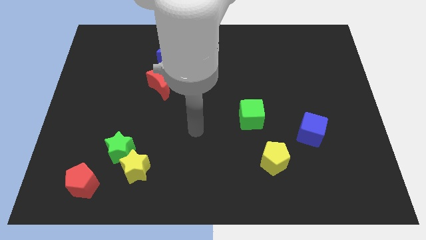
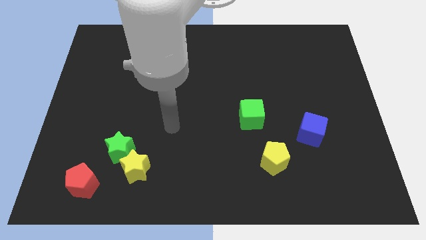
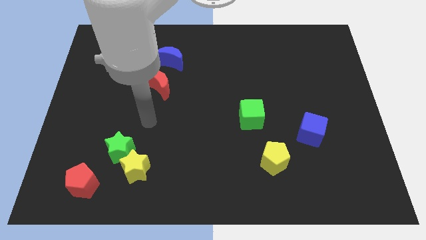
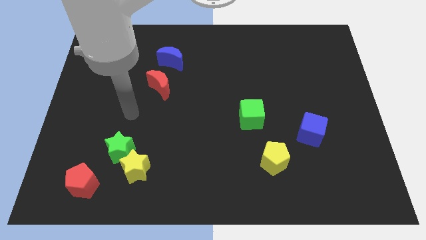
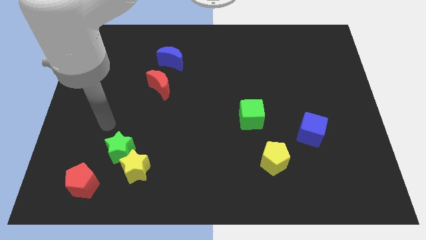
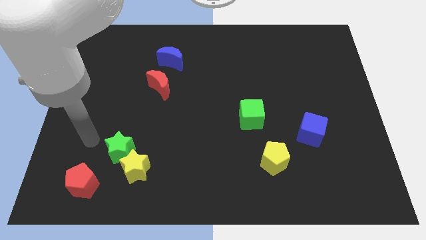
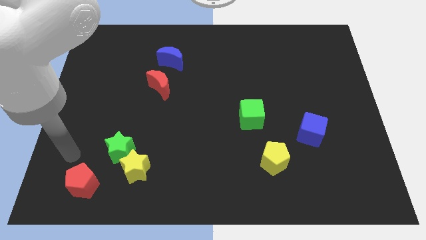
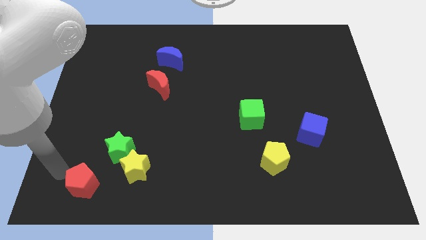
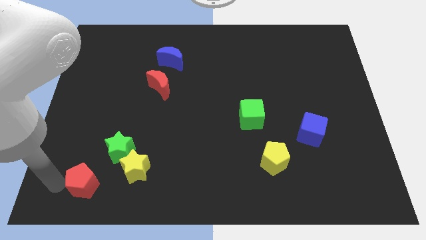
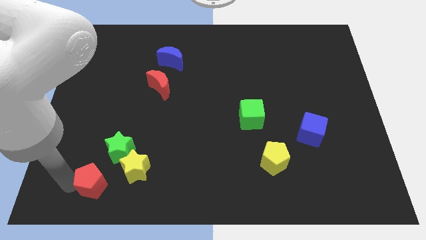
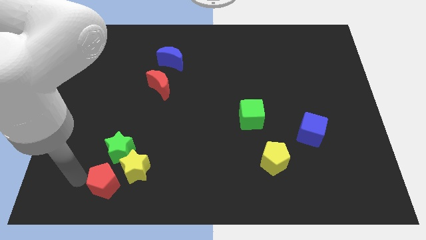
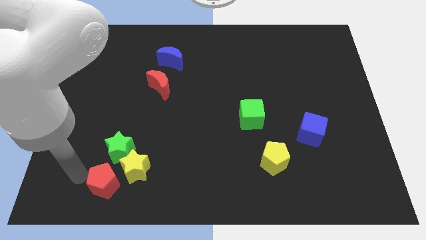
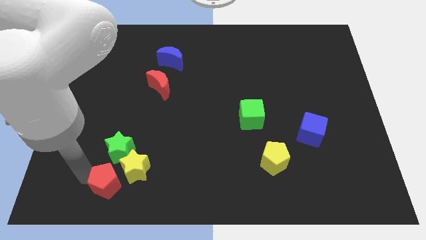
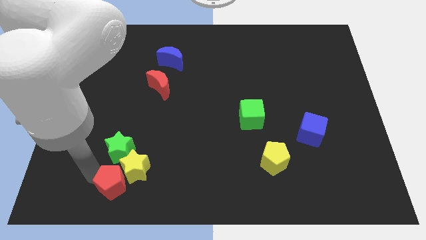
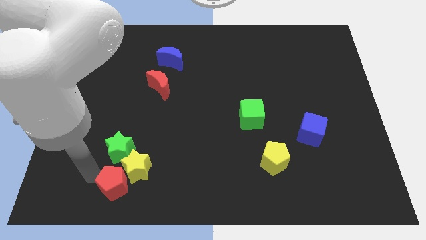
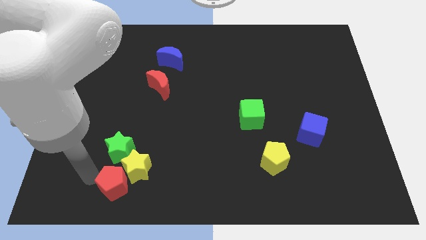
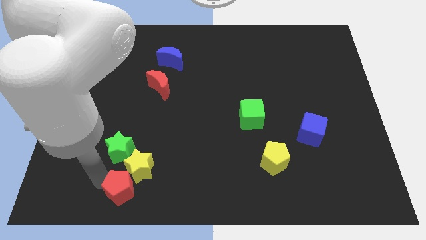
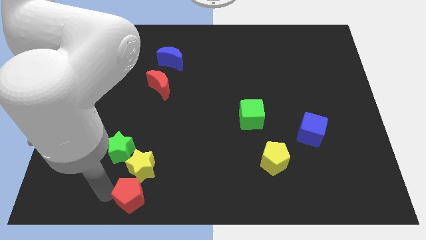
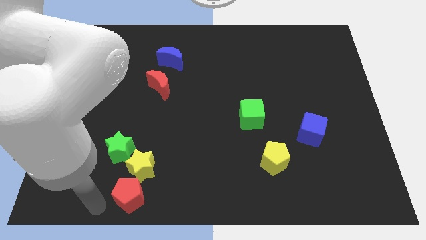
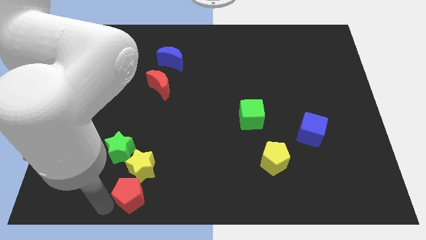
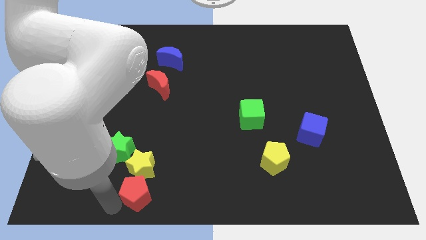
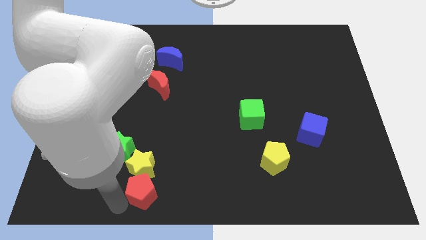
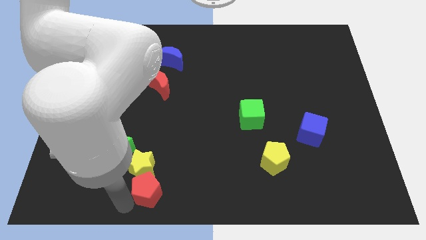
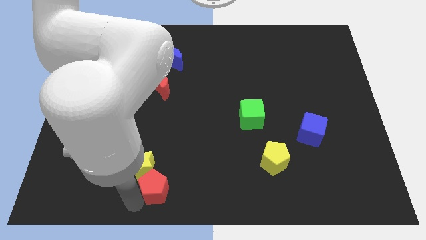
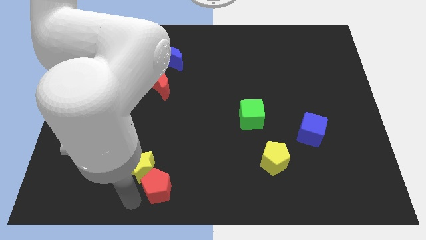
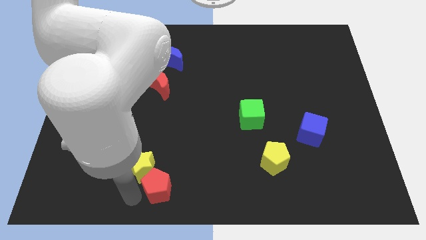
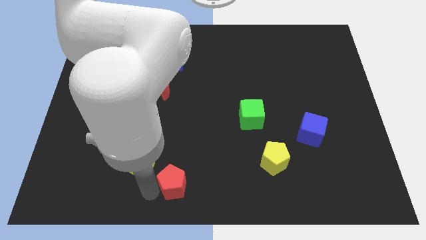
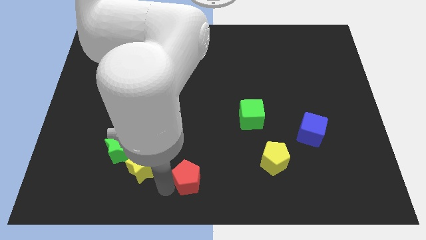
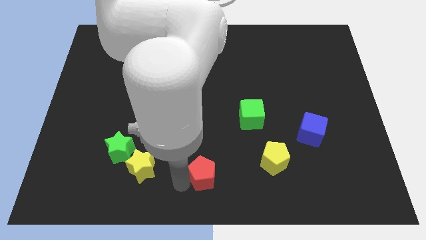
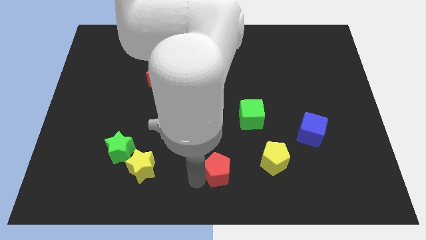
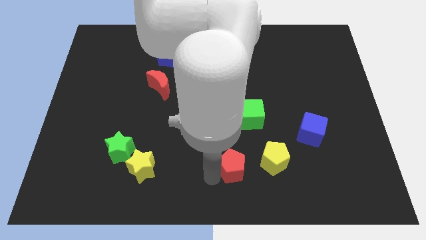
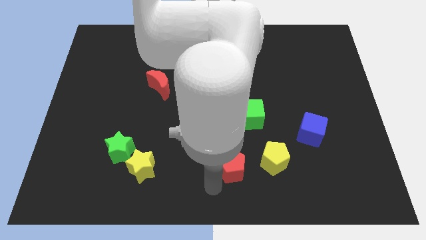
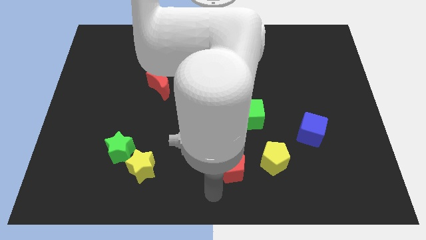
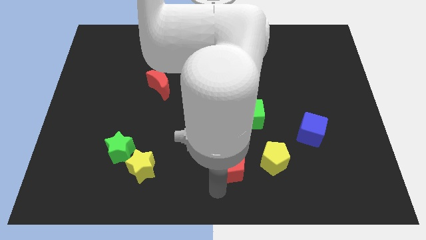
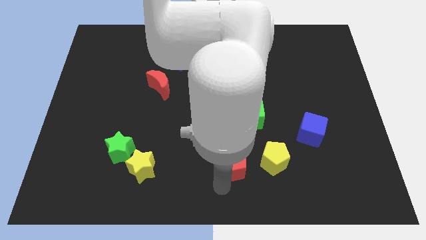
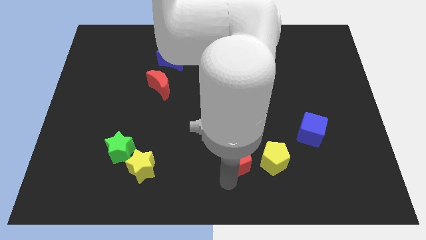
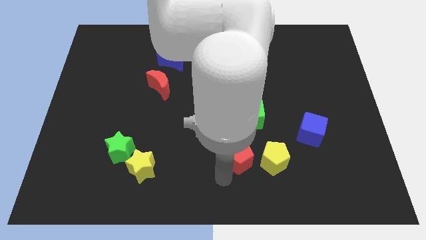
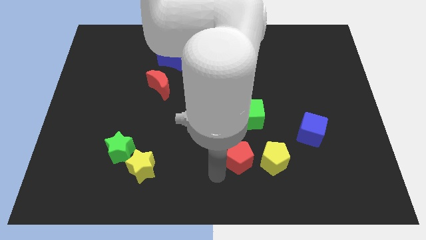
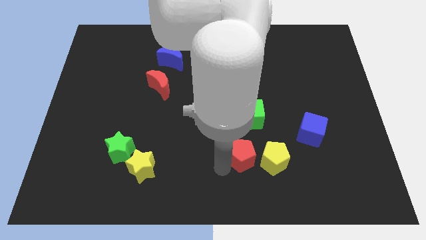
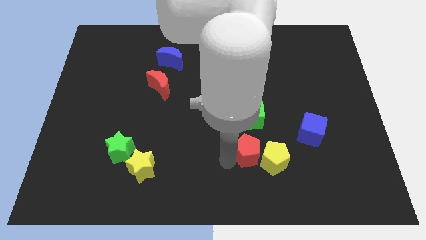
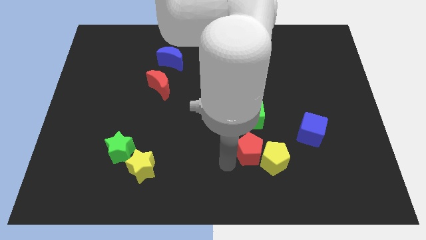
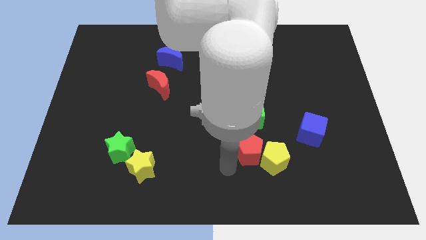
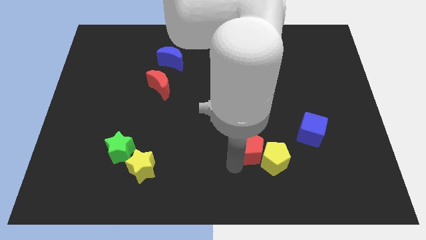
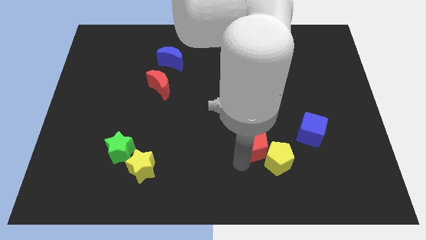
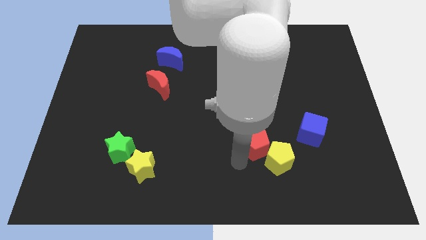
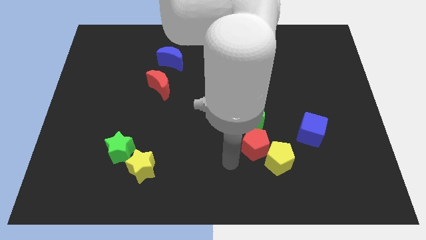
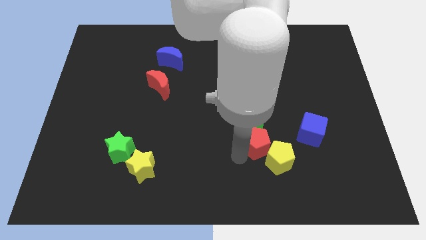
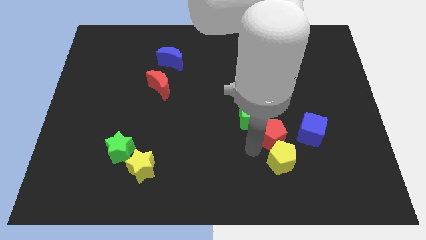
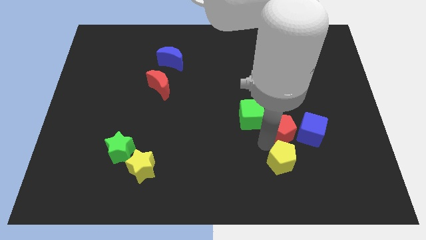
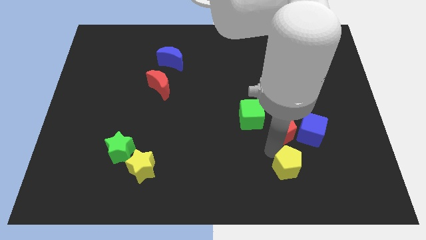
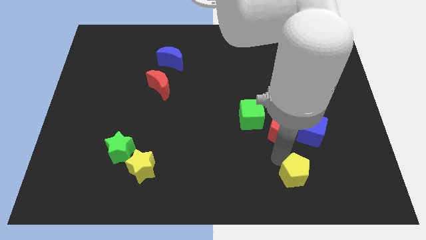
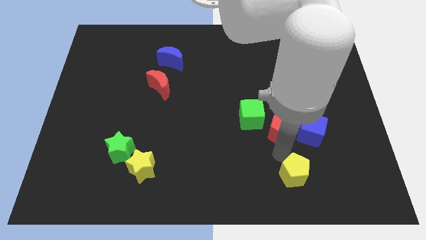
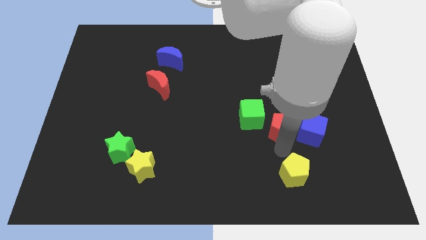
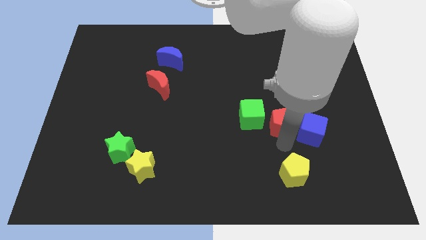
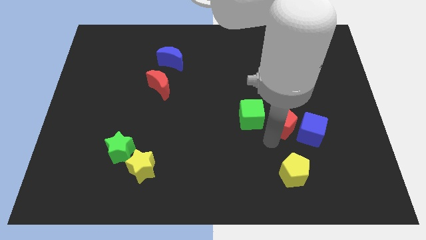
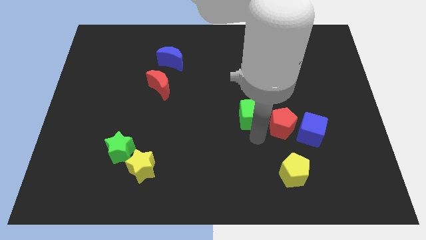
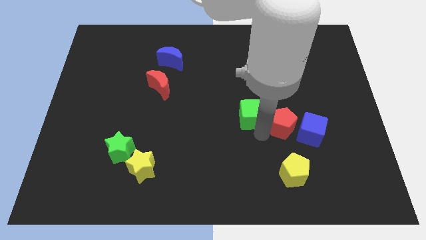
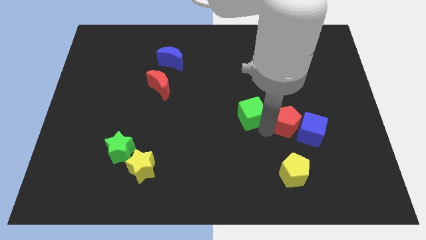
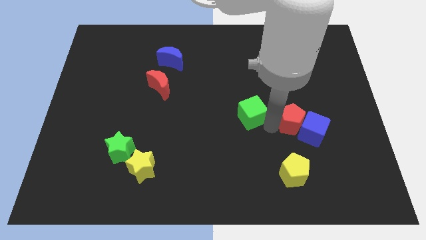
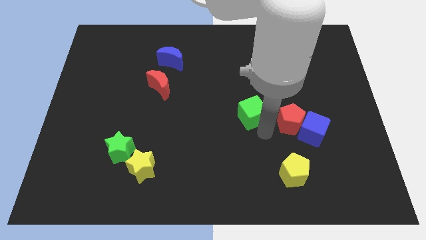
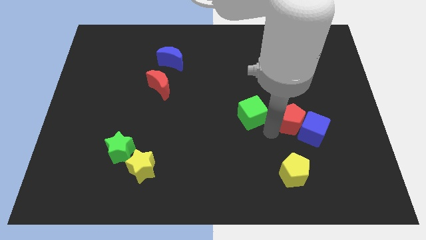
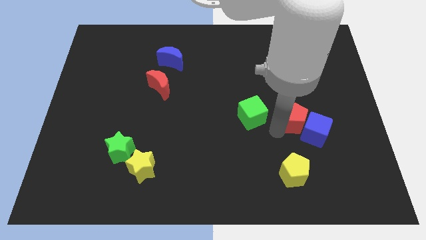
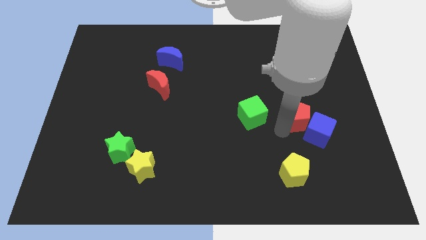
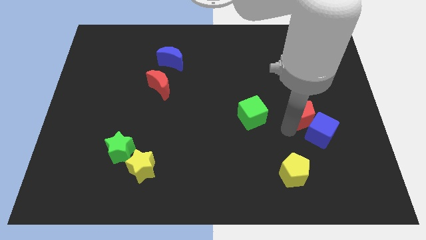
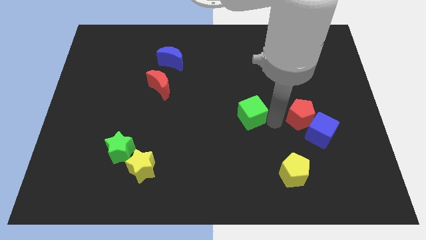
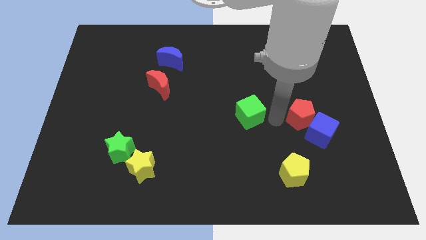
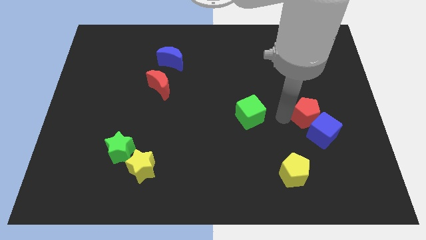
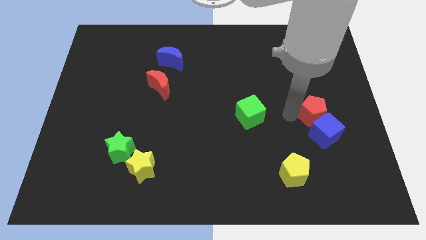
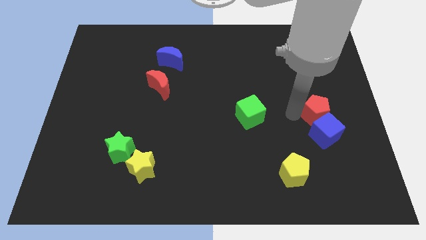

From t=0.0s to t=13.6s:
push the red pentagon to the top right side of the blue cube

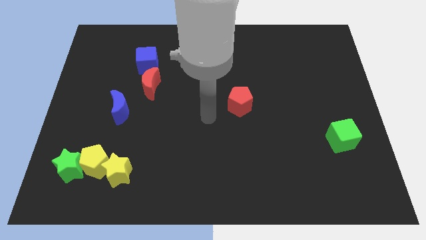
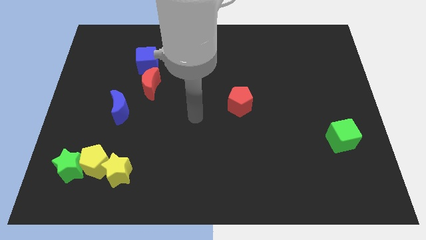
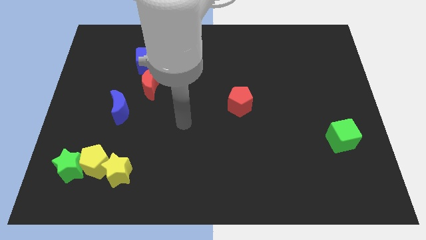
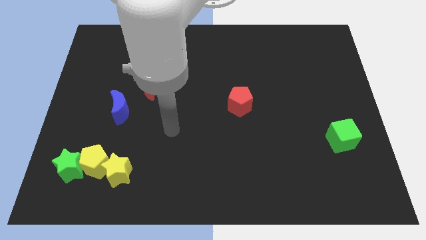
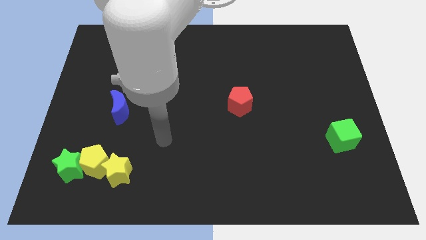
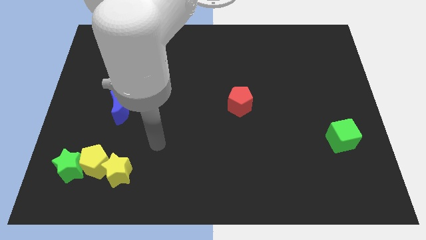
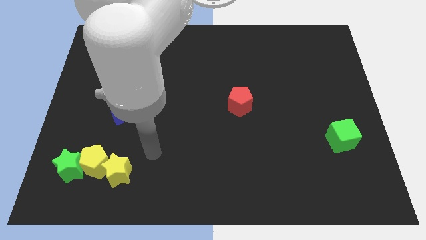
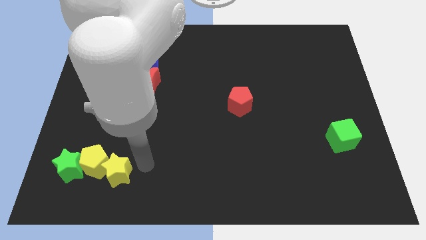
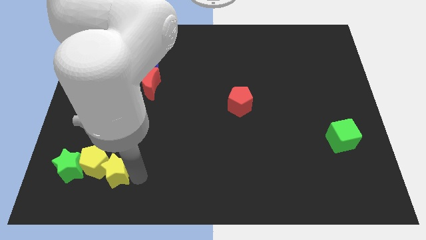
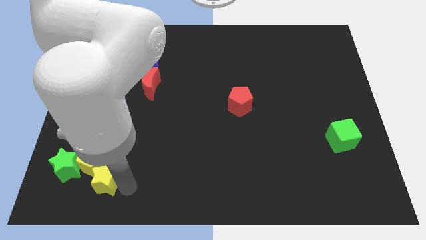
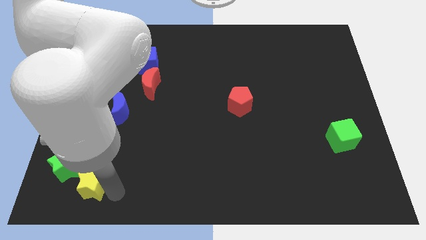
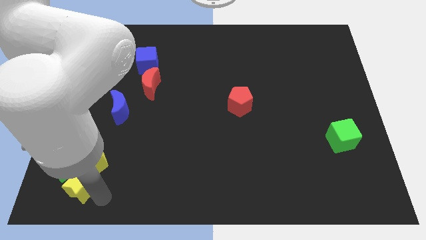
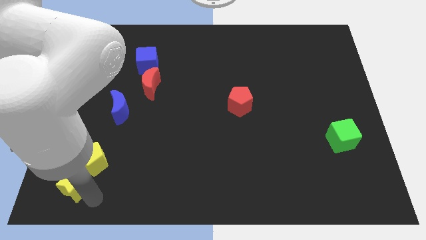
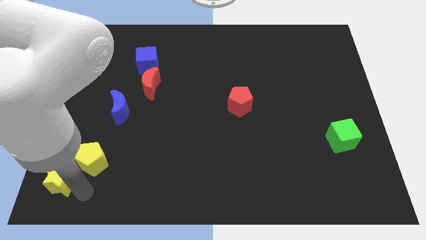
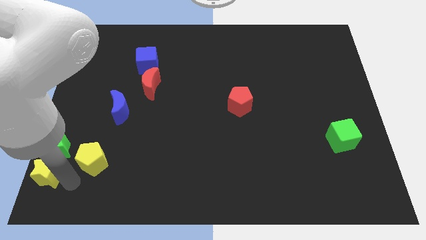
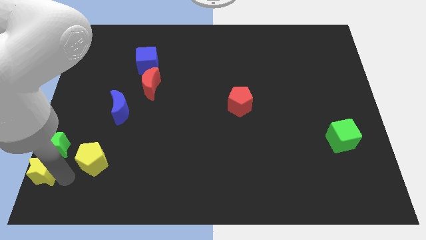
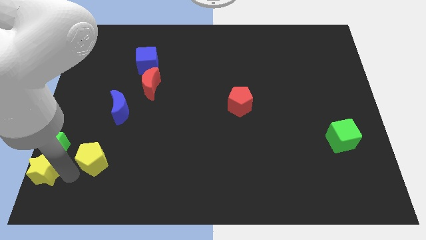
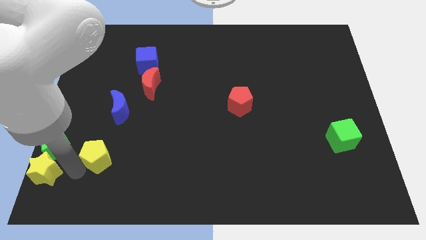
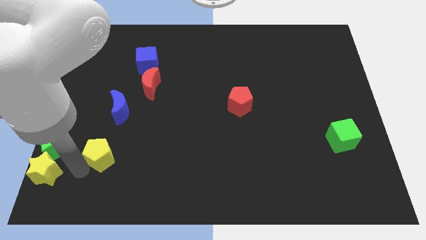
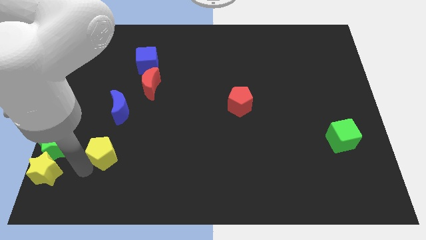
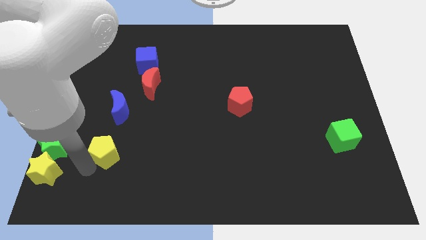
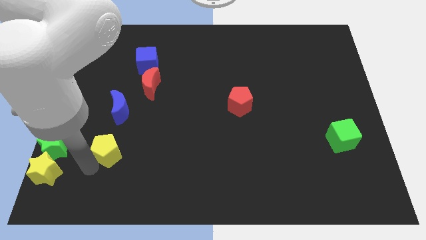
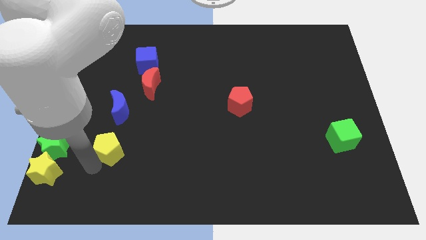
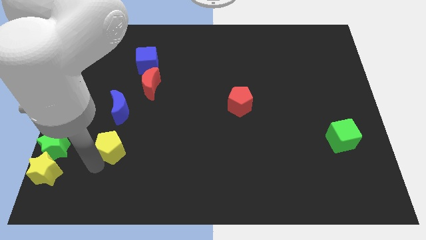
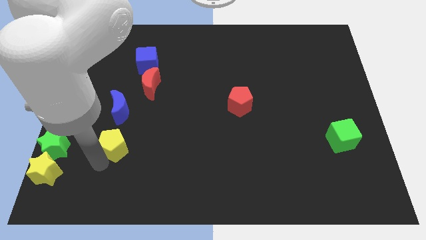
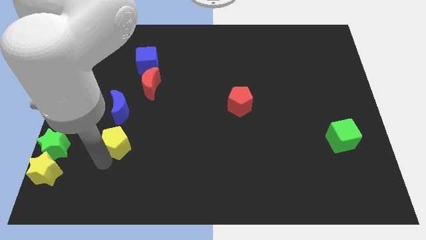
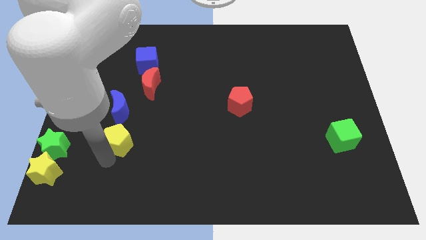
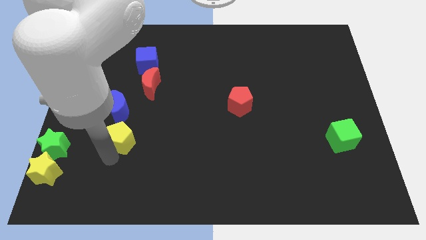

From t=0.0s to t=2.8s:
put the yellow pentagon diagonally down and to the right of the blue moon
